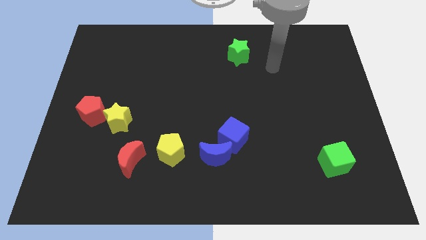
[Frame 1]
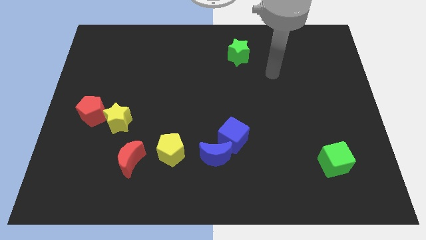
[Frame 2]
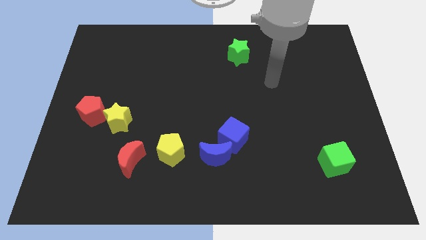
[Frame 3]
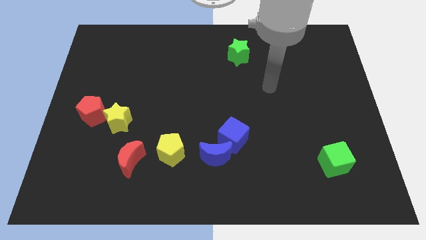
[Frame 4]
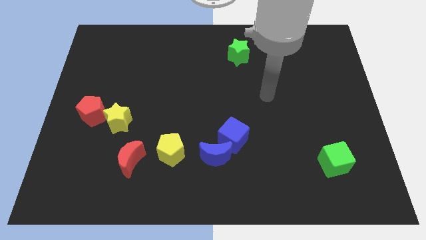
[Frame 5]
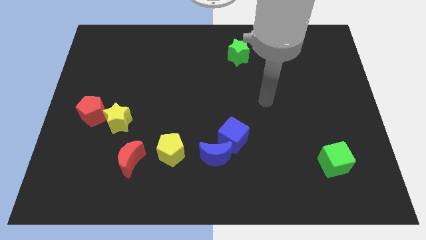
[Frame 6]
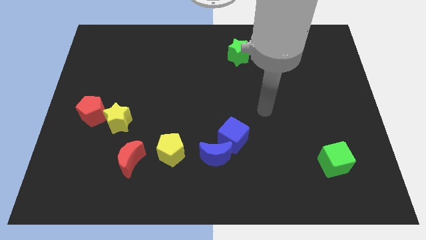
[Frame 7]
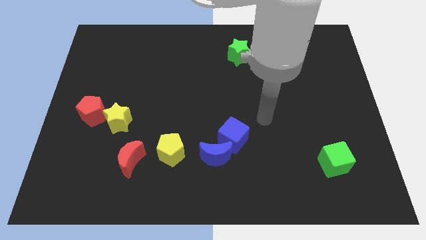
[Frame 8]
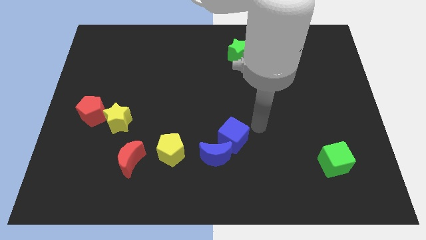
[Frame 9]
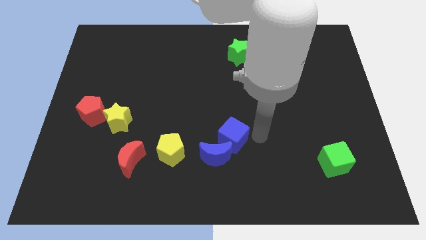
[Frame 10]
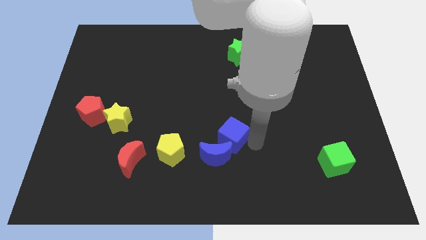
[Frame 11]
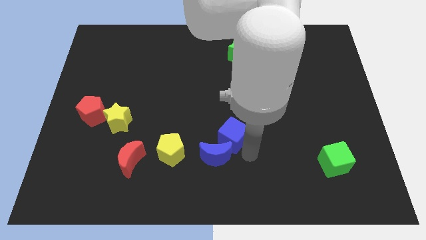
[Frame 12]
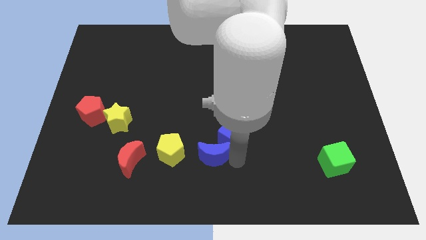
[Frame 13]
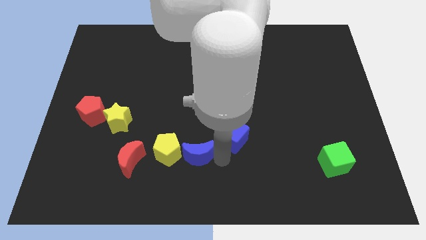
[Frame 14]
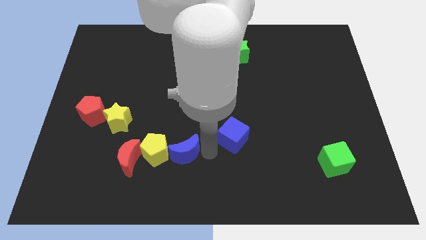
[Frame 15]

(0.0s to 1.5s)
pull the blue cube apart from the blue moon

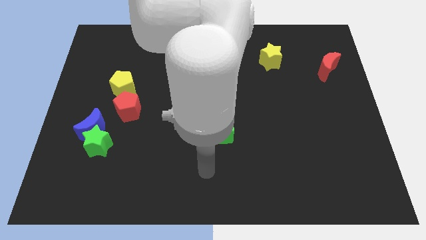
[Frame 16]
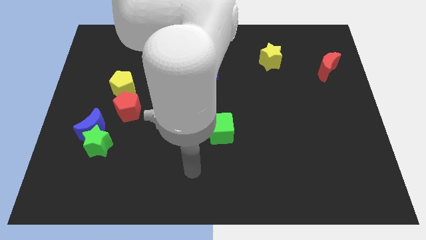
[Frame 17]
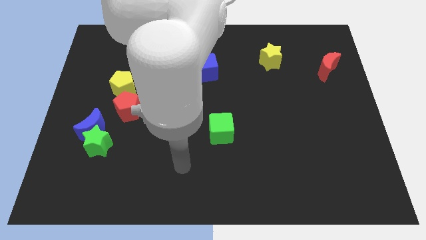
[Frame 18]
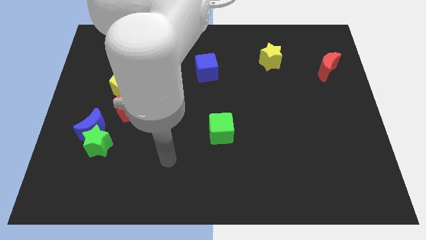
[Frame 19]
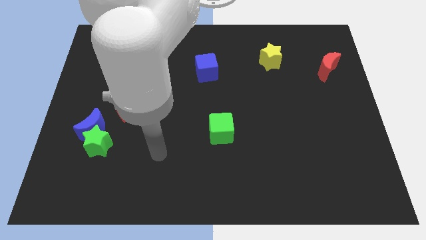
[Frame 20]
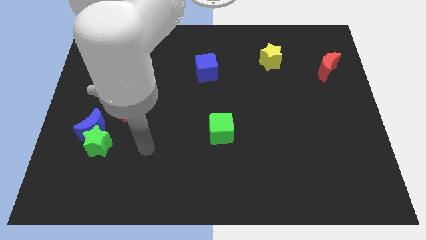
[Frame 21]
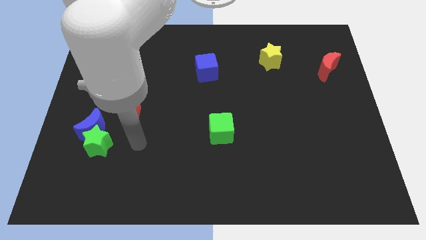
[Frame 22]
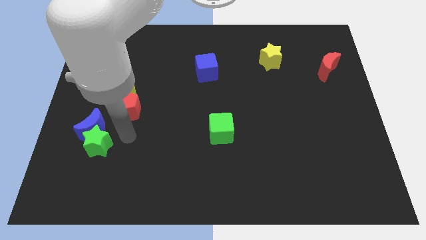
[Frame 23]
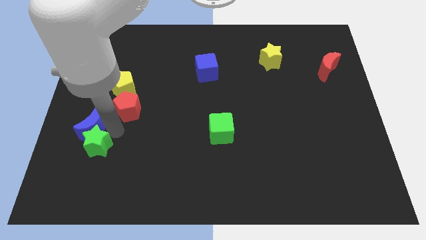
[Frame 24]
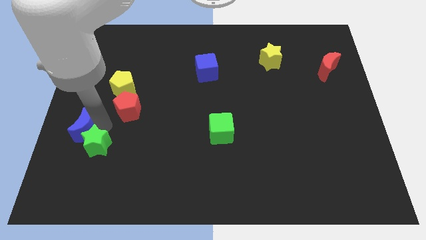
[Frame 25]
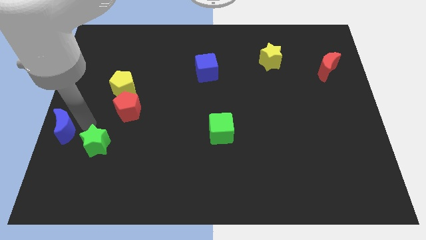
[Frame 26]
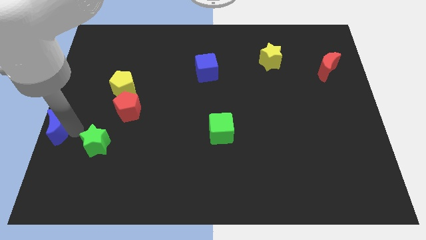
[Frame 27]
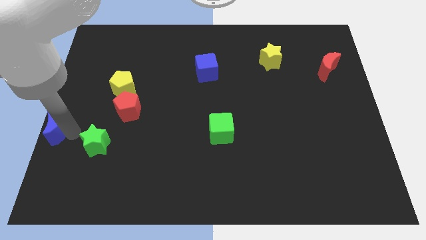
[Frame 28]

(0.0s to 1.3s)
pull the green star apart from the blue moon

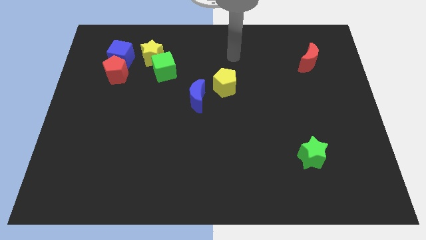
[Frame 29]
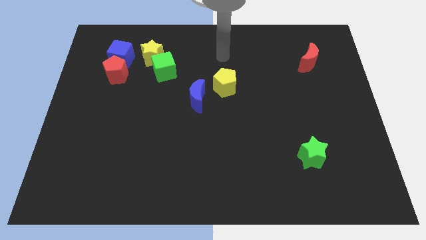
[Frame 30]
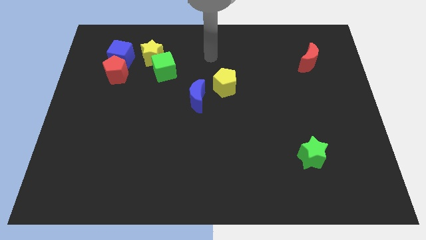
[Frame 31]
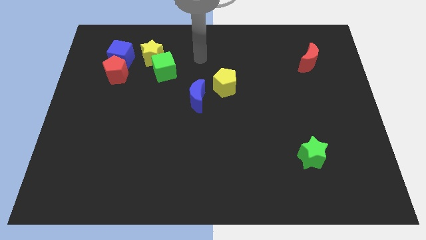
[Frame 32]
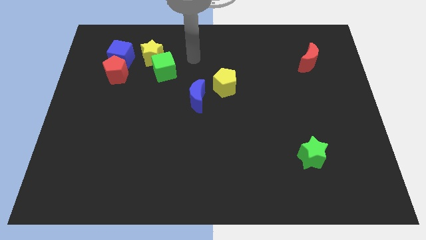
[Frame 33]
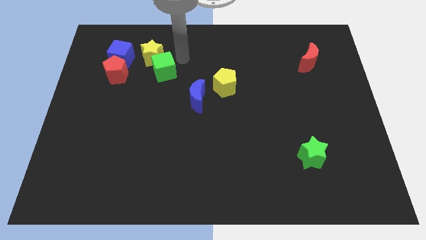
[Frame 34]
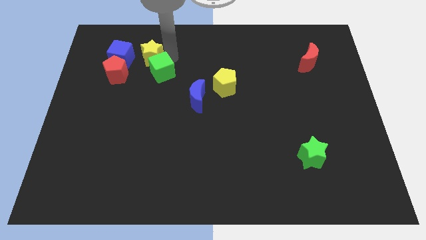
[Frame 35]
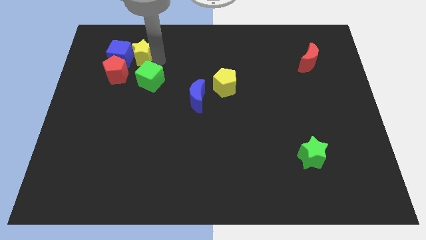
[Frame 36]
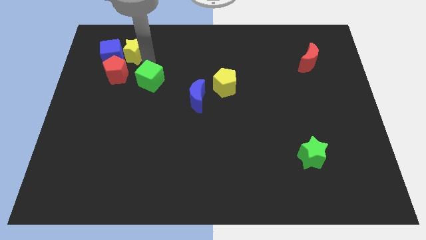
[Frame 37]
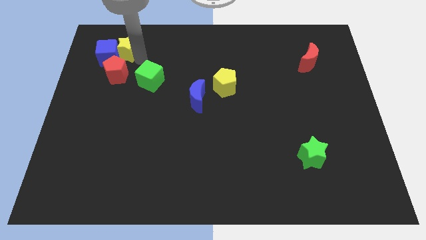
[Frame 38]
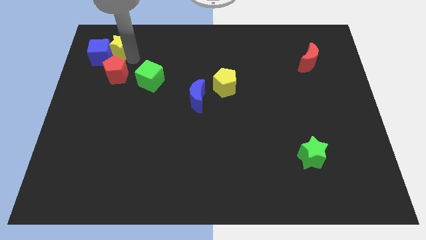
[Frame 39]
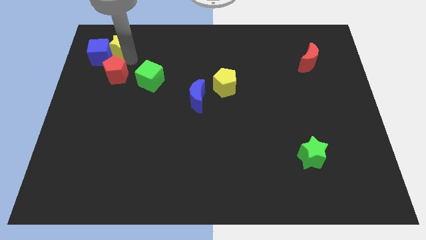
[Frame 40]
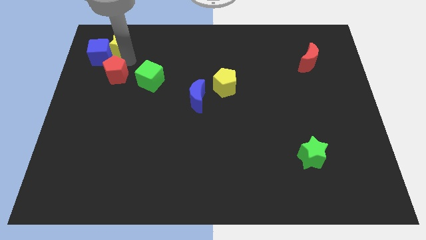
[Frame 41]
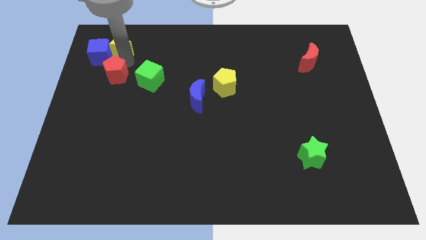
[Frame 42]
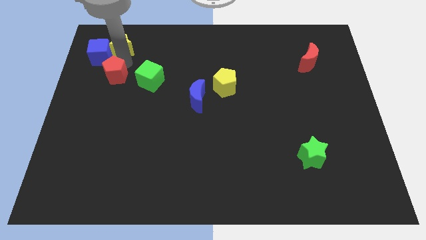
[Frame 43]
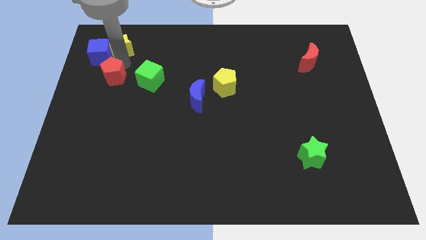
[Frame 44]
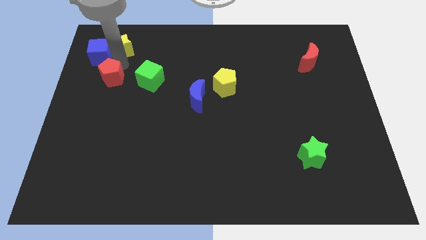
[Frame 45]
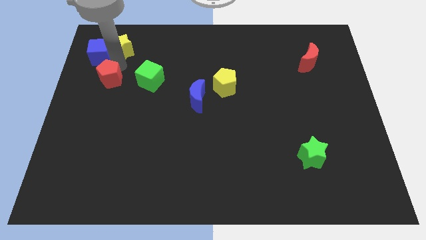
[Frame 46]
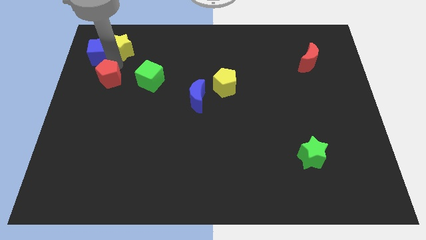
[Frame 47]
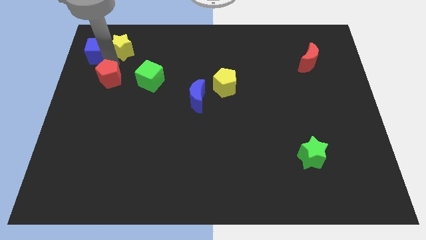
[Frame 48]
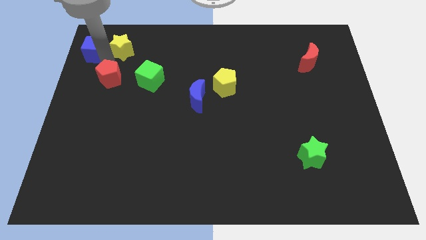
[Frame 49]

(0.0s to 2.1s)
move the red pentagon away from the blue cube

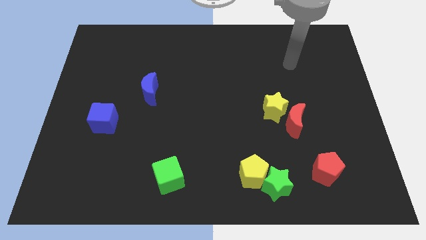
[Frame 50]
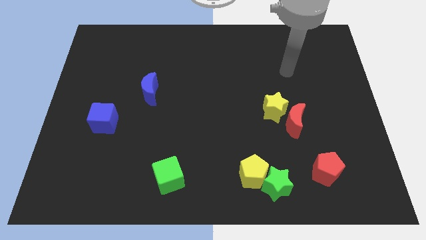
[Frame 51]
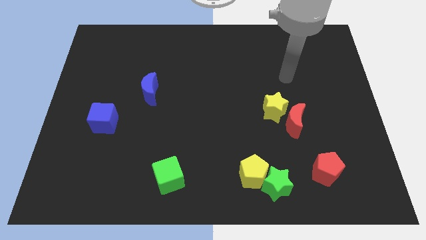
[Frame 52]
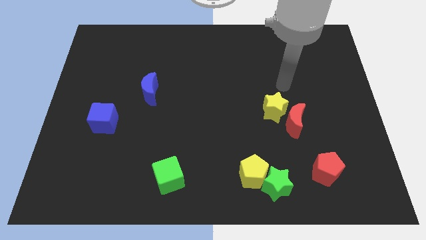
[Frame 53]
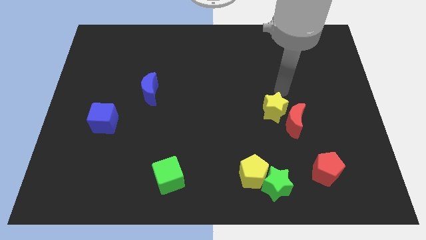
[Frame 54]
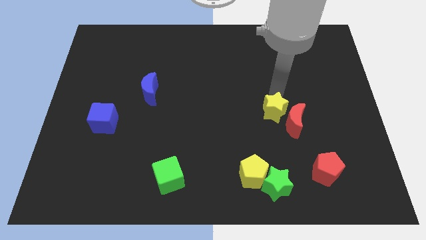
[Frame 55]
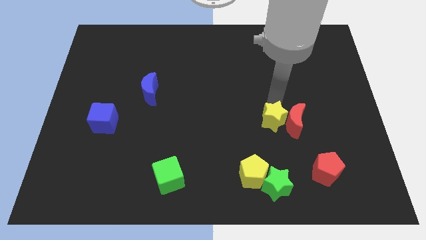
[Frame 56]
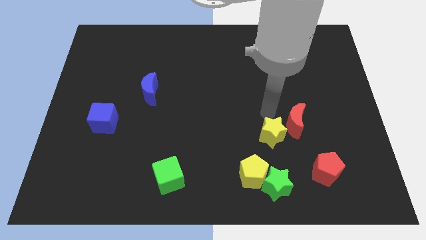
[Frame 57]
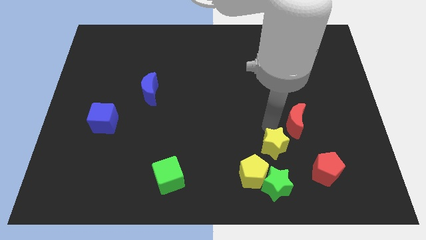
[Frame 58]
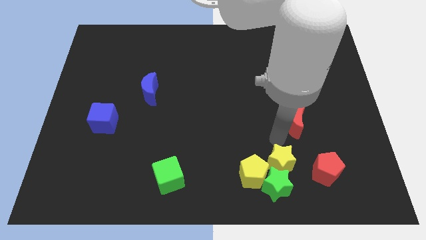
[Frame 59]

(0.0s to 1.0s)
separate the red moon from the yellow star

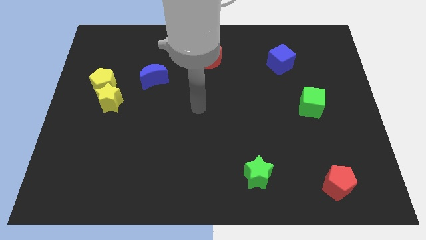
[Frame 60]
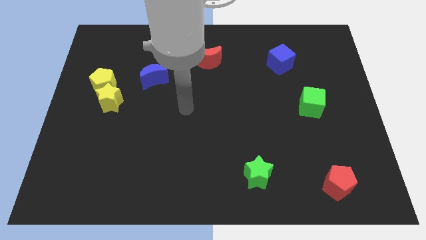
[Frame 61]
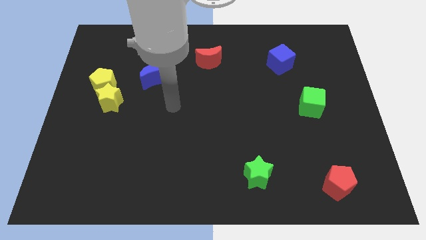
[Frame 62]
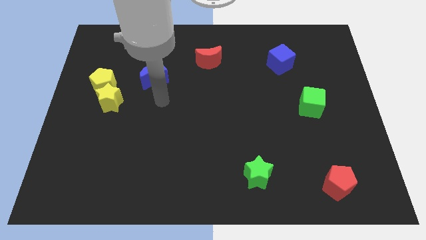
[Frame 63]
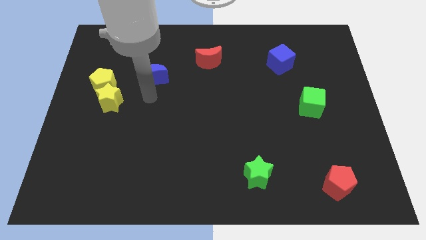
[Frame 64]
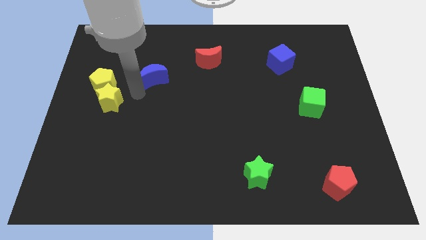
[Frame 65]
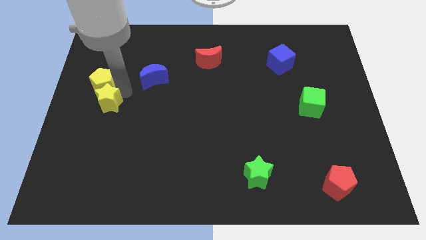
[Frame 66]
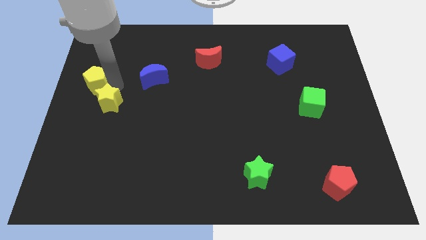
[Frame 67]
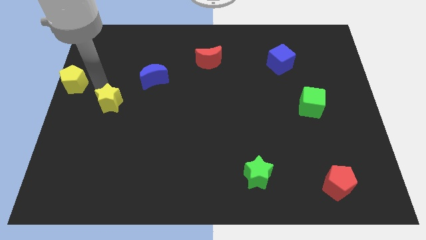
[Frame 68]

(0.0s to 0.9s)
separate the yellow star from the yellow pentagon

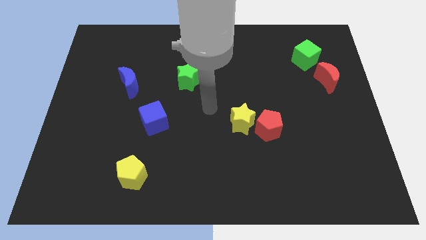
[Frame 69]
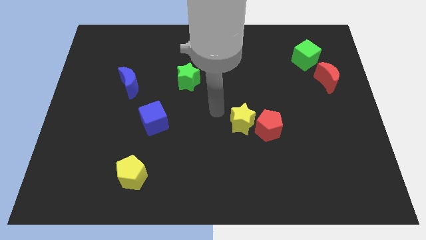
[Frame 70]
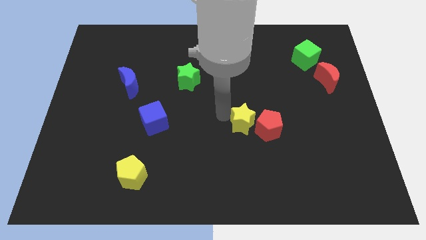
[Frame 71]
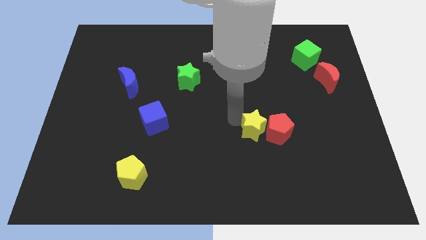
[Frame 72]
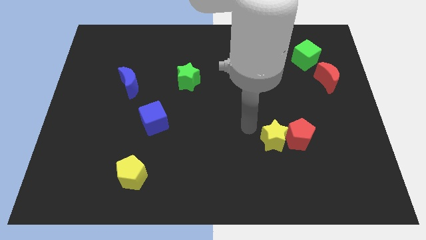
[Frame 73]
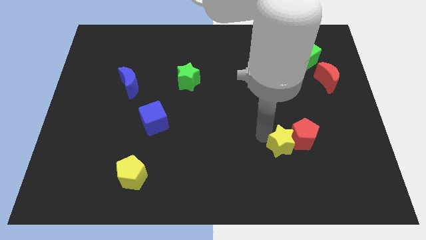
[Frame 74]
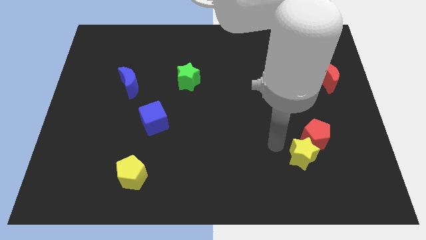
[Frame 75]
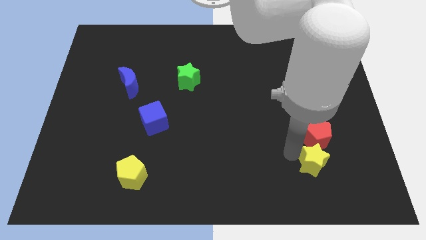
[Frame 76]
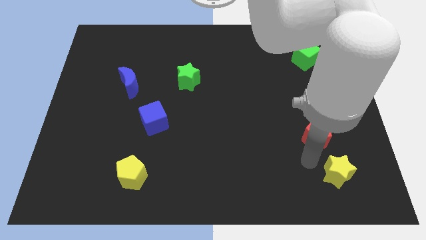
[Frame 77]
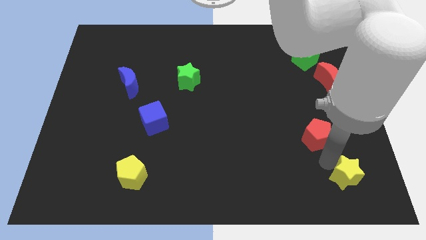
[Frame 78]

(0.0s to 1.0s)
pull the red pentagon apart from the yellow star

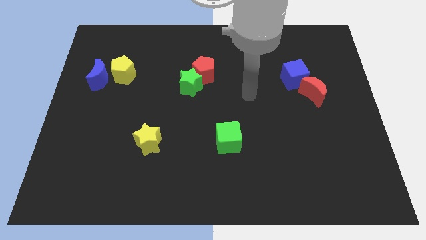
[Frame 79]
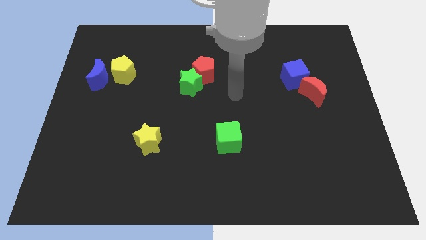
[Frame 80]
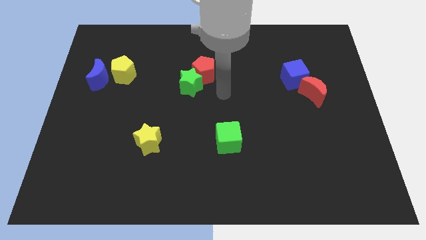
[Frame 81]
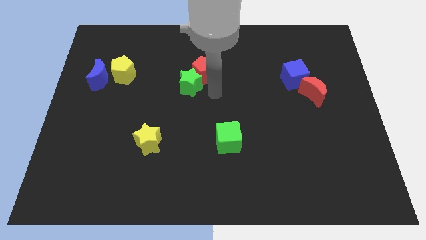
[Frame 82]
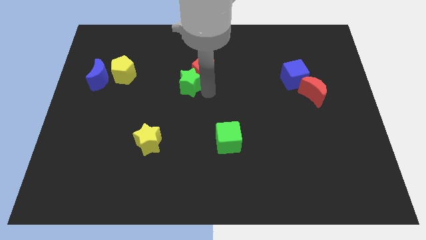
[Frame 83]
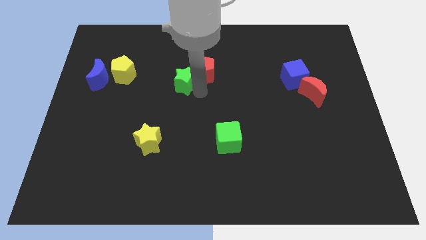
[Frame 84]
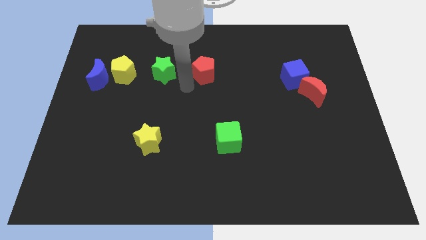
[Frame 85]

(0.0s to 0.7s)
move the red pentagon away from the green star

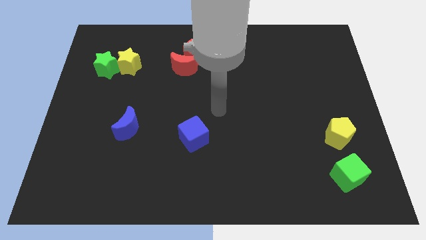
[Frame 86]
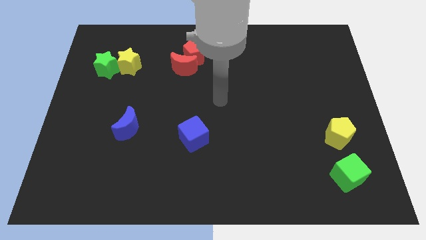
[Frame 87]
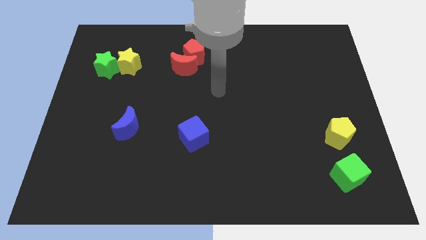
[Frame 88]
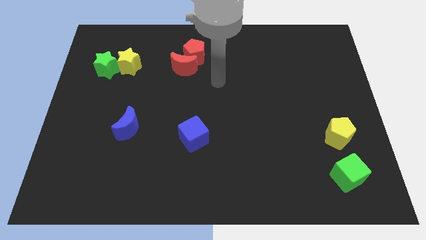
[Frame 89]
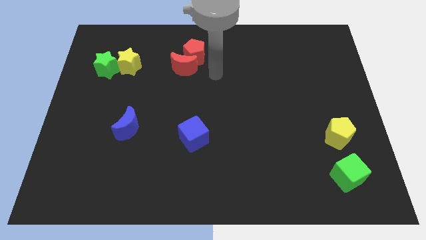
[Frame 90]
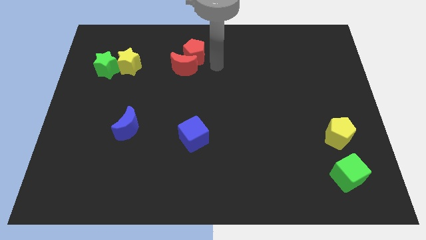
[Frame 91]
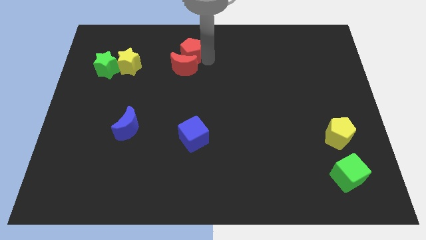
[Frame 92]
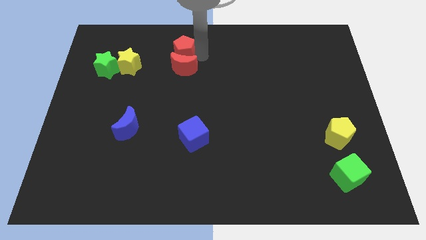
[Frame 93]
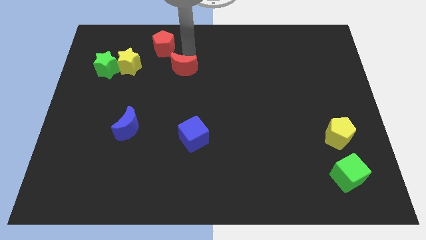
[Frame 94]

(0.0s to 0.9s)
pull the red moon apart from the red pentagon
